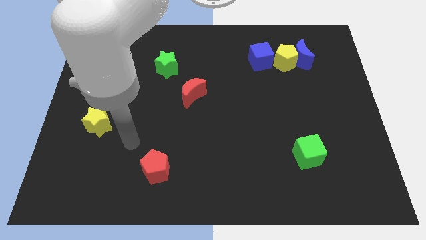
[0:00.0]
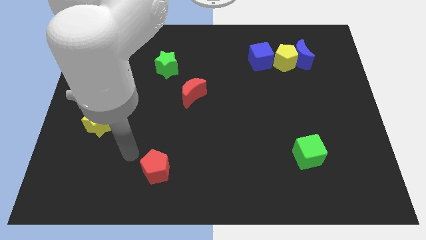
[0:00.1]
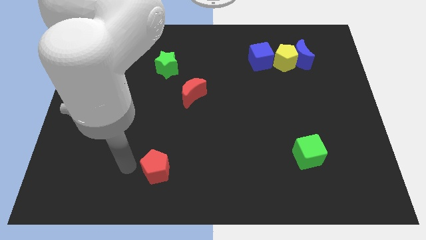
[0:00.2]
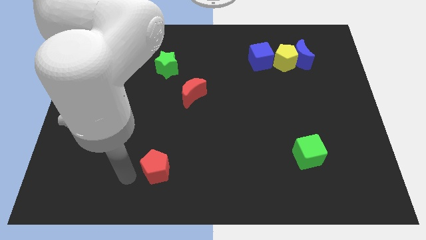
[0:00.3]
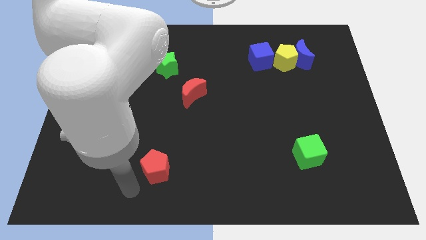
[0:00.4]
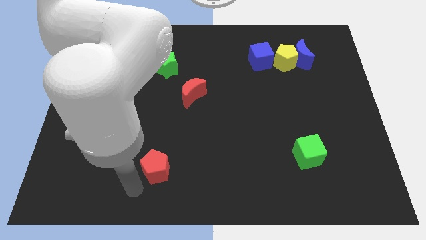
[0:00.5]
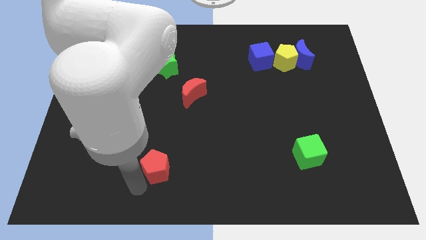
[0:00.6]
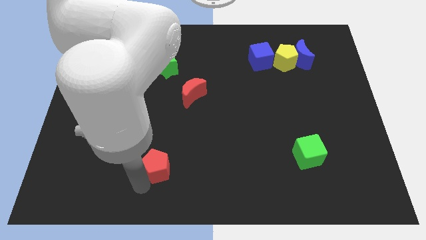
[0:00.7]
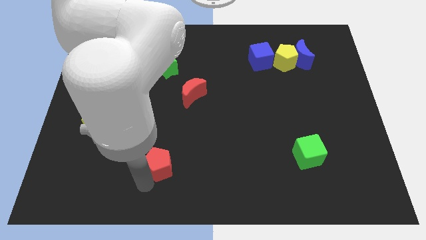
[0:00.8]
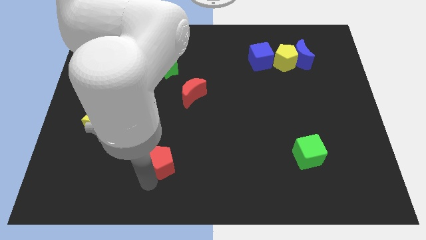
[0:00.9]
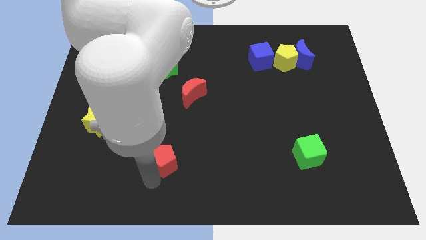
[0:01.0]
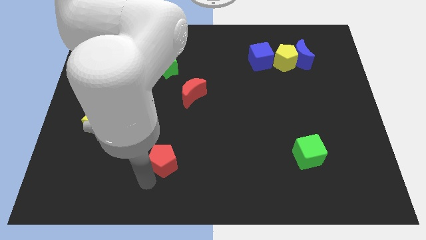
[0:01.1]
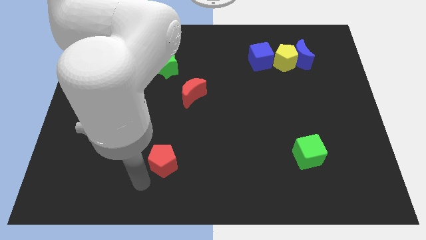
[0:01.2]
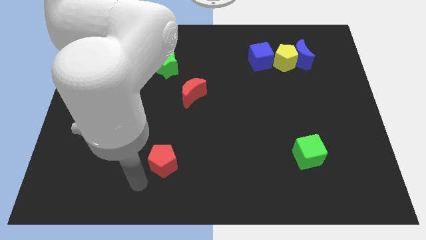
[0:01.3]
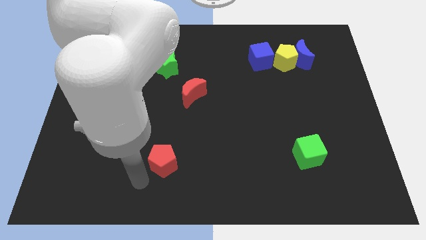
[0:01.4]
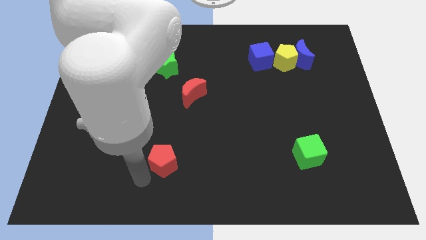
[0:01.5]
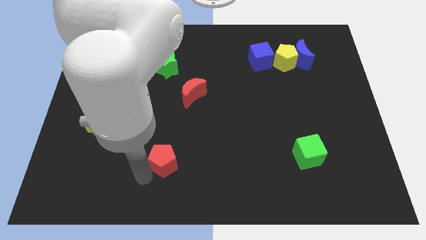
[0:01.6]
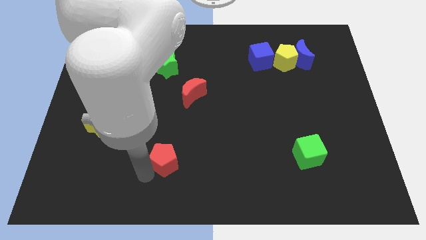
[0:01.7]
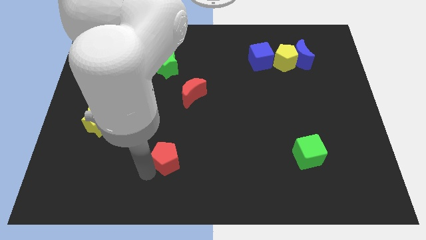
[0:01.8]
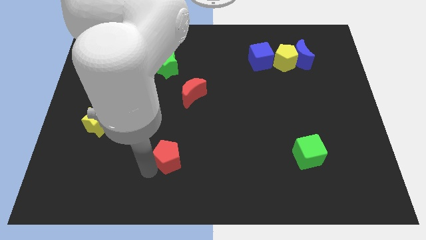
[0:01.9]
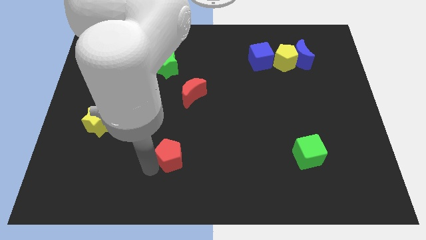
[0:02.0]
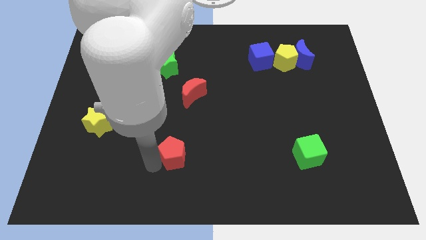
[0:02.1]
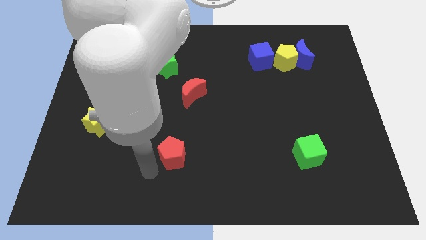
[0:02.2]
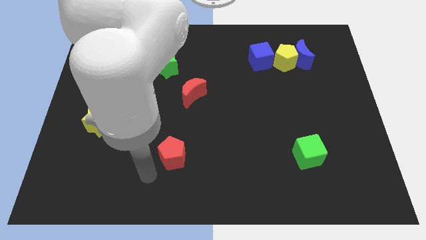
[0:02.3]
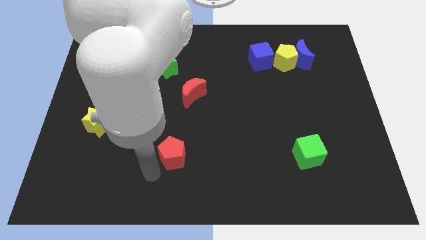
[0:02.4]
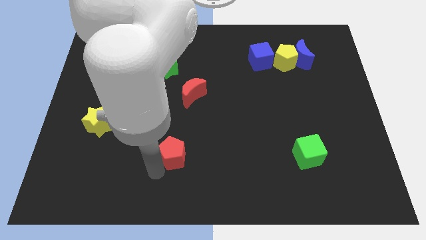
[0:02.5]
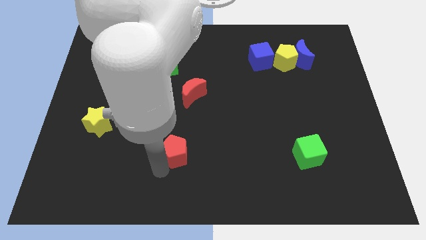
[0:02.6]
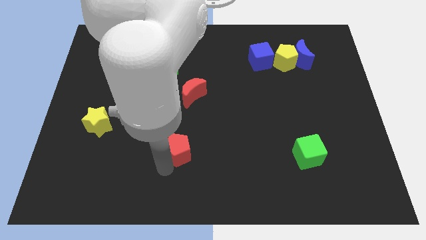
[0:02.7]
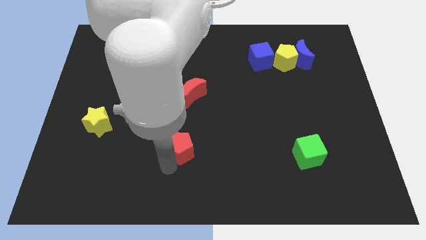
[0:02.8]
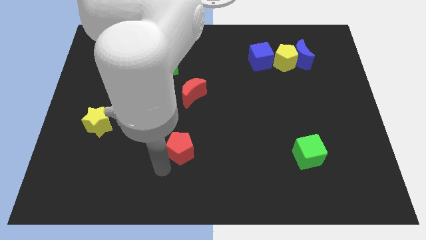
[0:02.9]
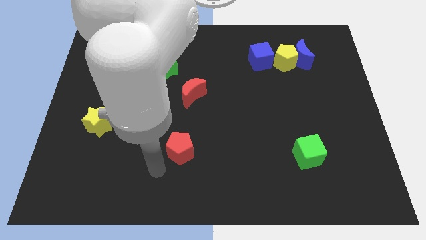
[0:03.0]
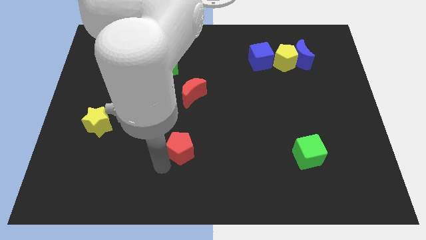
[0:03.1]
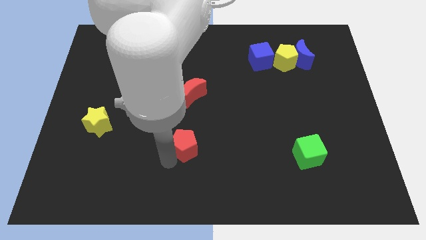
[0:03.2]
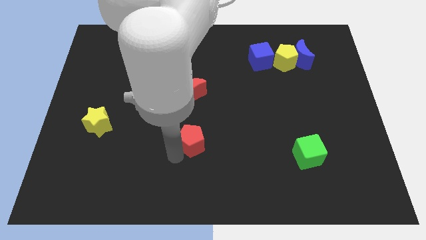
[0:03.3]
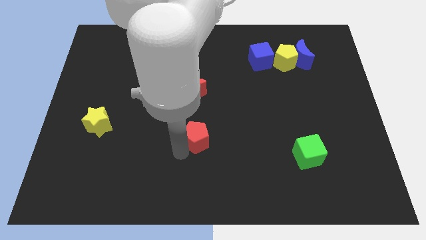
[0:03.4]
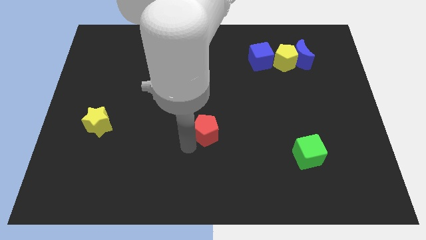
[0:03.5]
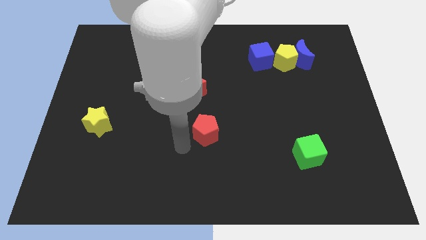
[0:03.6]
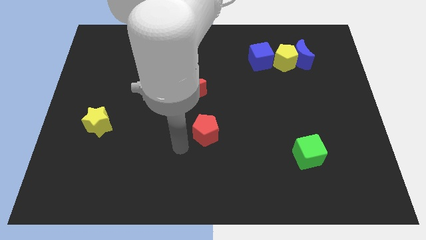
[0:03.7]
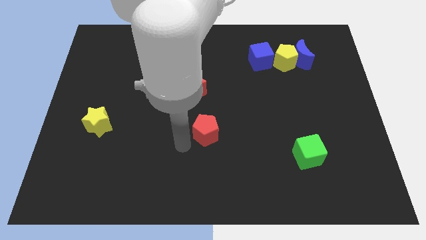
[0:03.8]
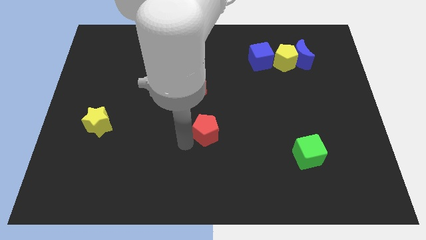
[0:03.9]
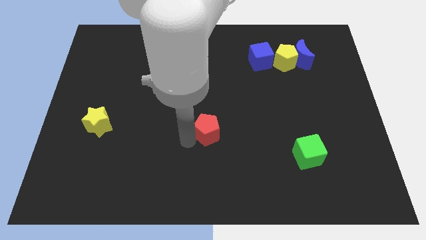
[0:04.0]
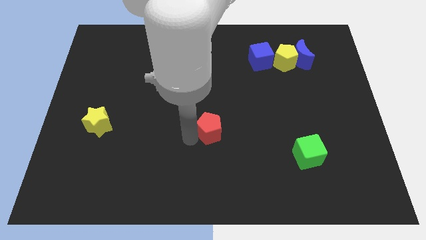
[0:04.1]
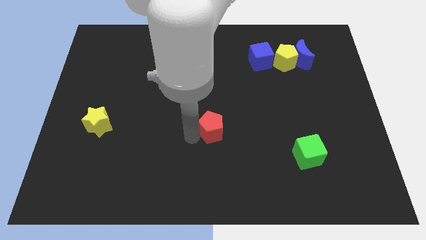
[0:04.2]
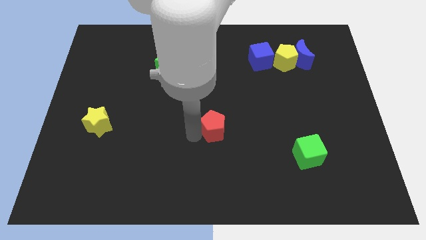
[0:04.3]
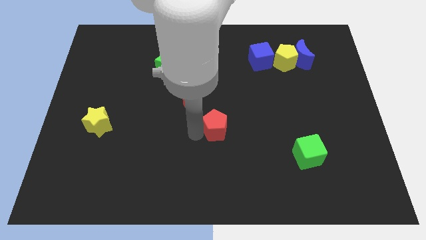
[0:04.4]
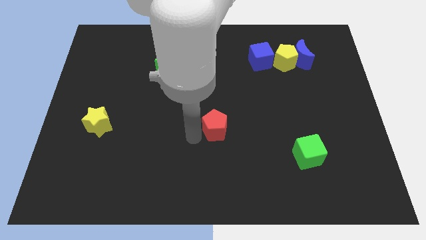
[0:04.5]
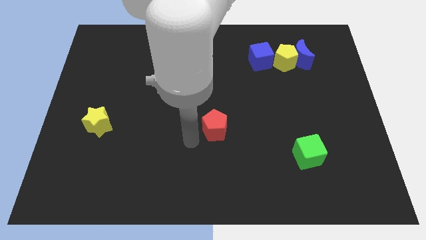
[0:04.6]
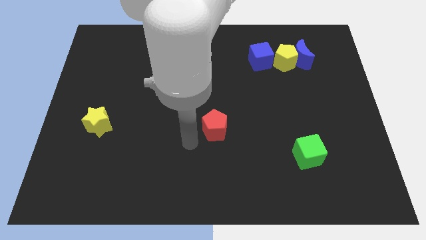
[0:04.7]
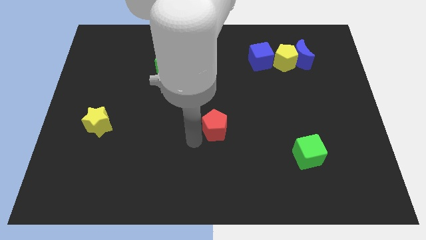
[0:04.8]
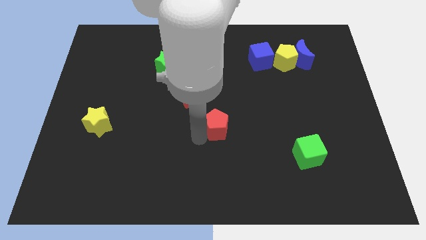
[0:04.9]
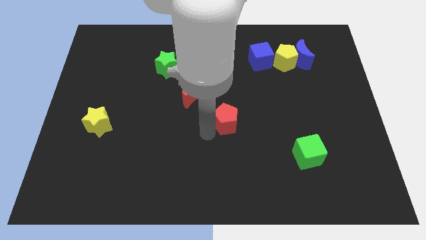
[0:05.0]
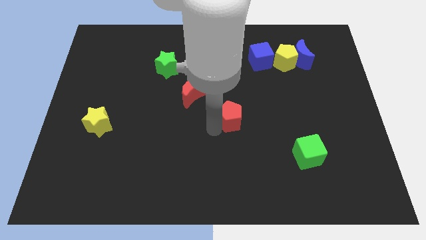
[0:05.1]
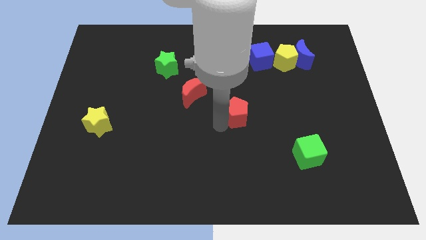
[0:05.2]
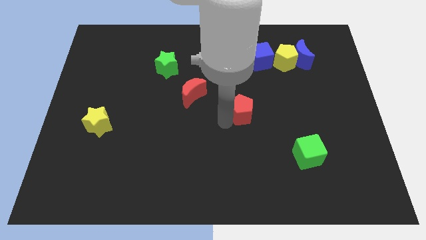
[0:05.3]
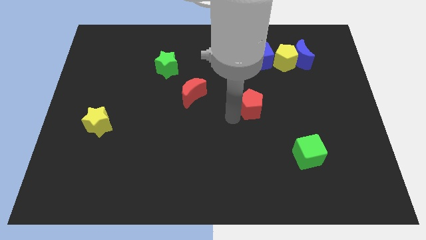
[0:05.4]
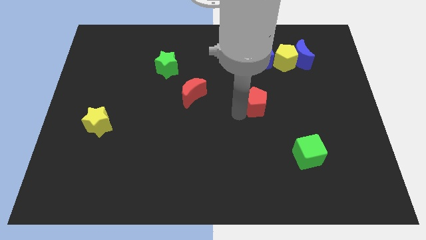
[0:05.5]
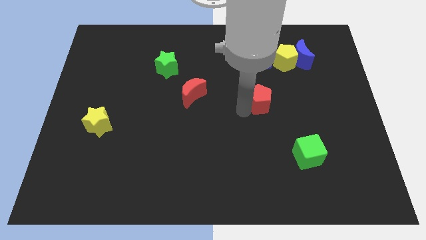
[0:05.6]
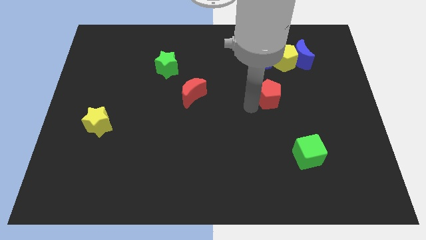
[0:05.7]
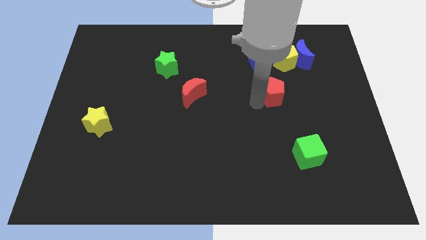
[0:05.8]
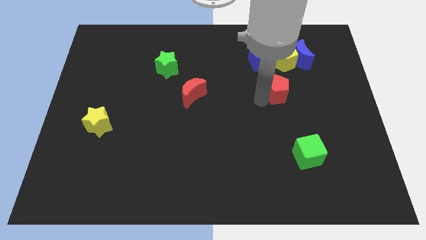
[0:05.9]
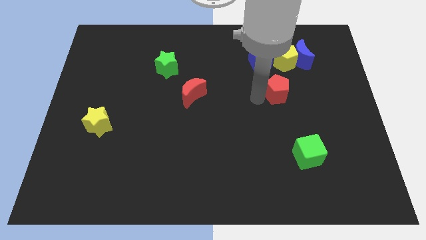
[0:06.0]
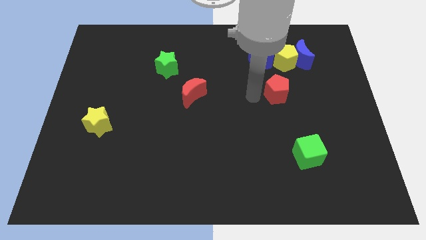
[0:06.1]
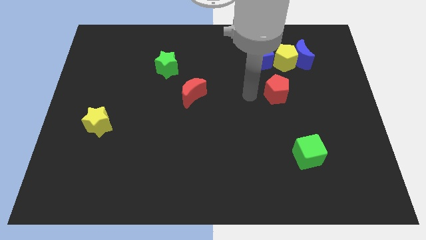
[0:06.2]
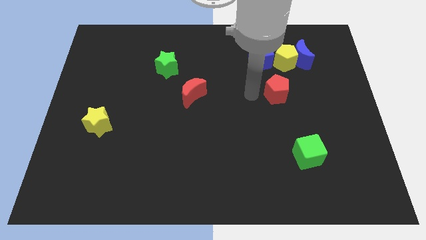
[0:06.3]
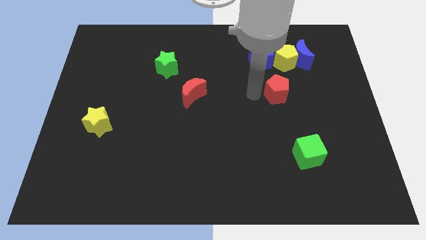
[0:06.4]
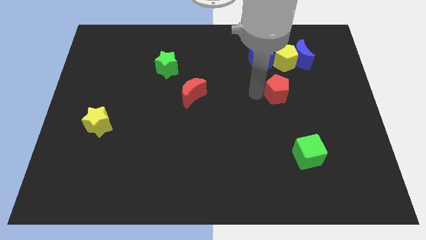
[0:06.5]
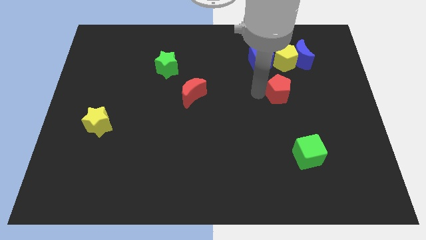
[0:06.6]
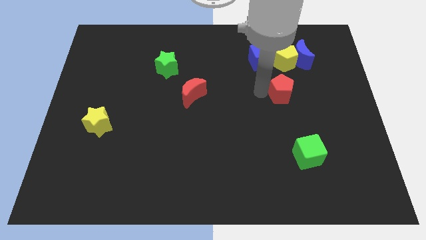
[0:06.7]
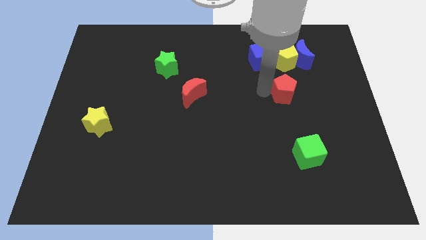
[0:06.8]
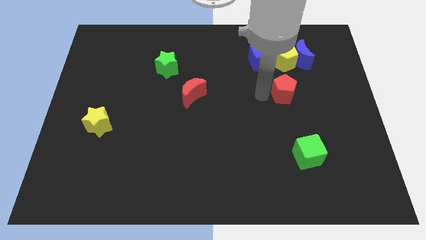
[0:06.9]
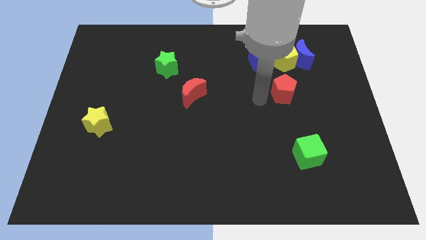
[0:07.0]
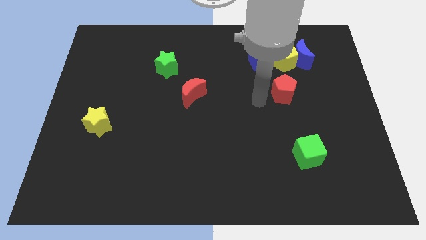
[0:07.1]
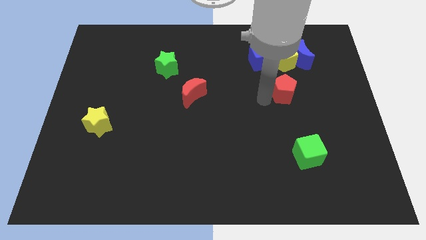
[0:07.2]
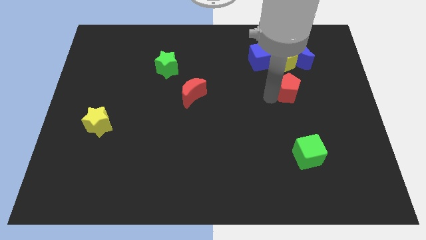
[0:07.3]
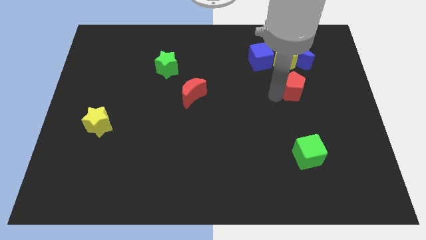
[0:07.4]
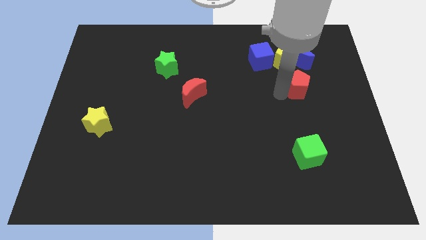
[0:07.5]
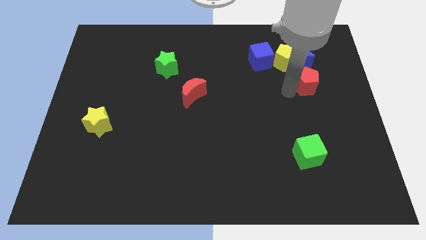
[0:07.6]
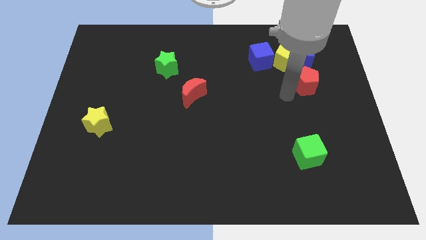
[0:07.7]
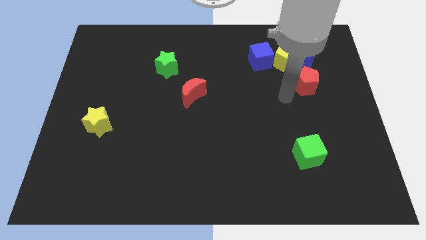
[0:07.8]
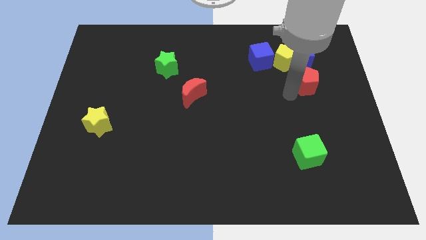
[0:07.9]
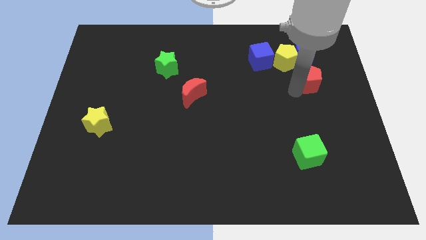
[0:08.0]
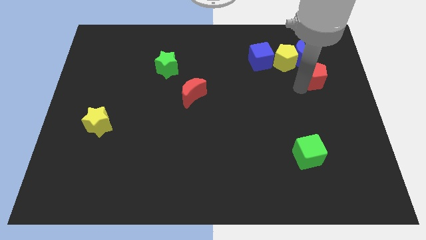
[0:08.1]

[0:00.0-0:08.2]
slide the red pentagon to the bottom right of the blue moon
